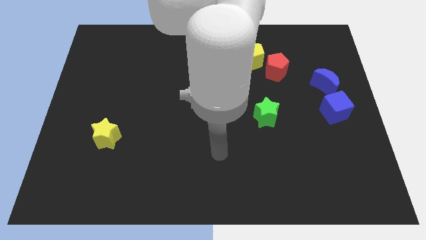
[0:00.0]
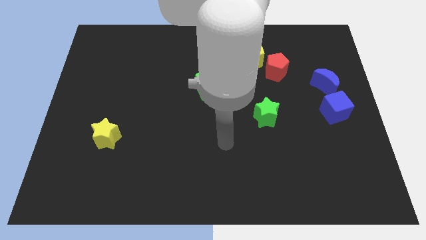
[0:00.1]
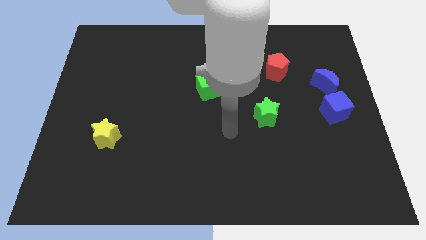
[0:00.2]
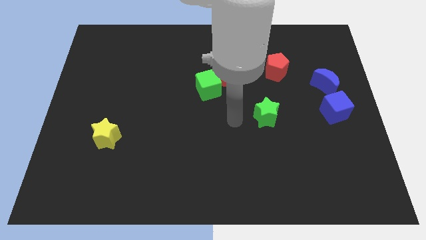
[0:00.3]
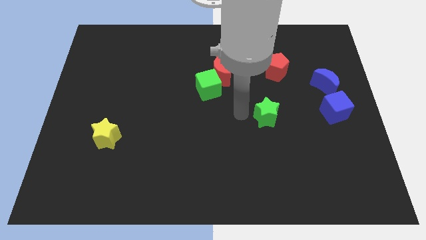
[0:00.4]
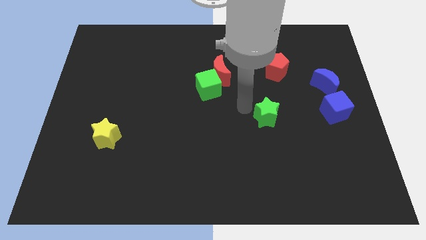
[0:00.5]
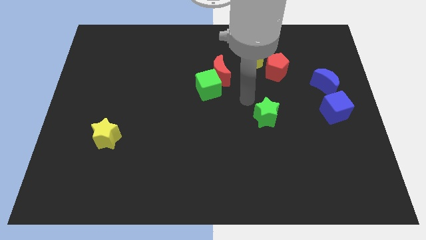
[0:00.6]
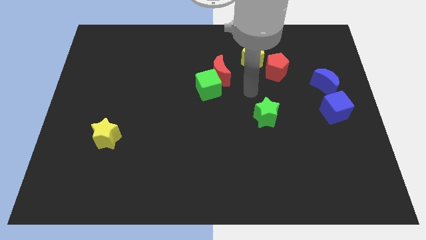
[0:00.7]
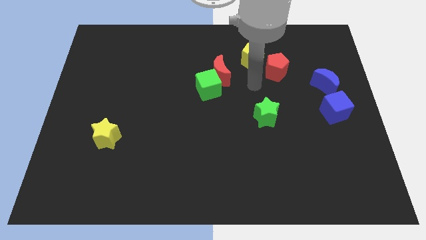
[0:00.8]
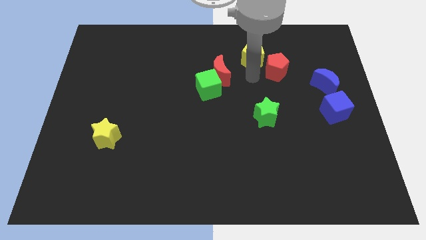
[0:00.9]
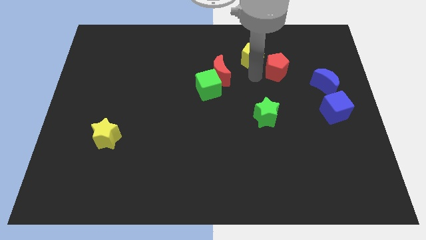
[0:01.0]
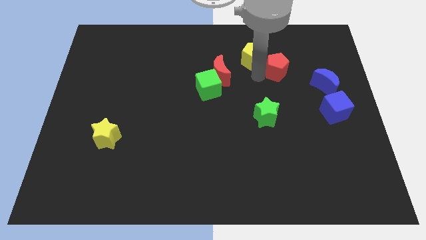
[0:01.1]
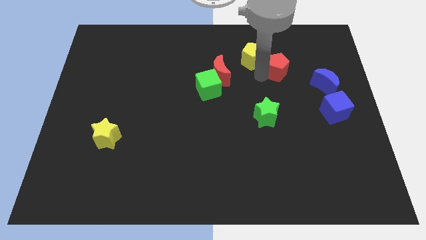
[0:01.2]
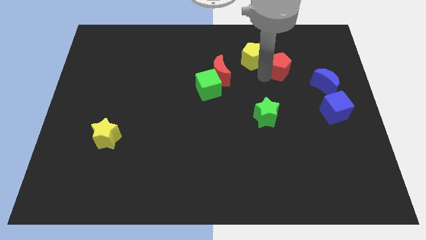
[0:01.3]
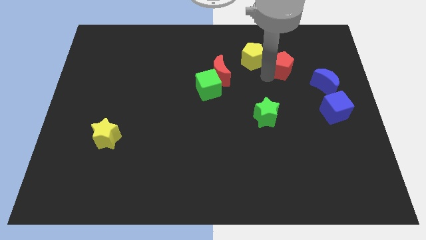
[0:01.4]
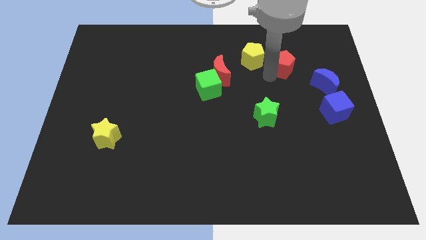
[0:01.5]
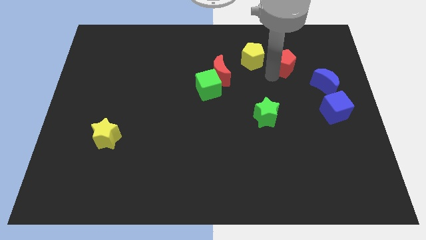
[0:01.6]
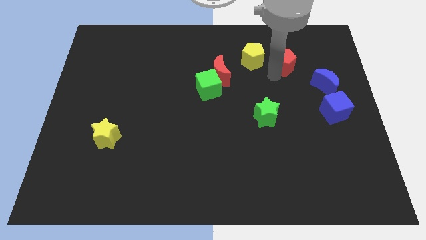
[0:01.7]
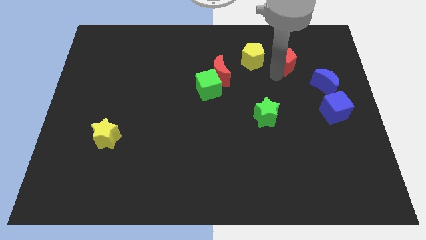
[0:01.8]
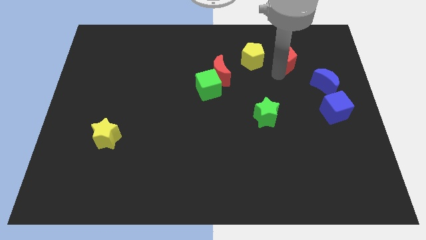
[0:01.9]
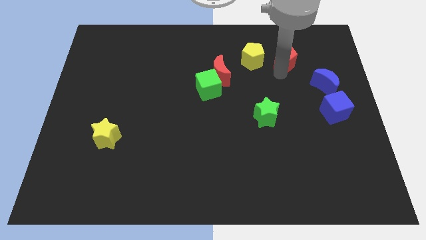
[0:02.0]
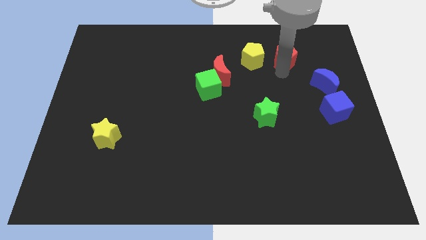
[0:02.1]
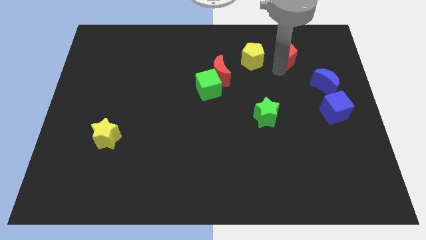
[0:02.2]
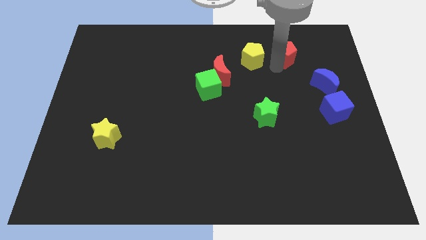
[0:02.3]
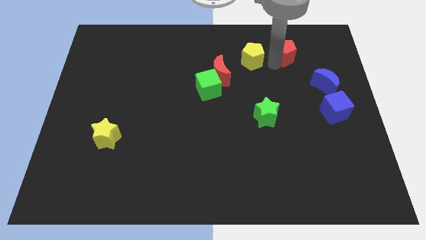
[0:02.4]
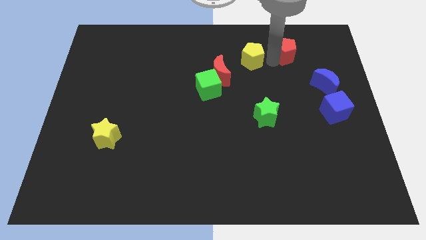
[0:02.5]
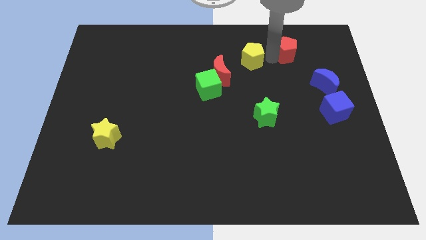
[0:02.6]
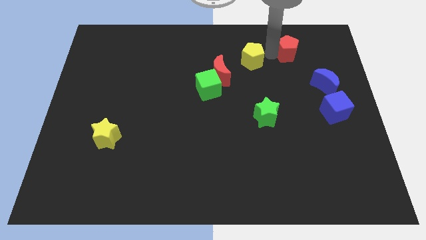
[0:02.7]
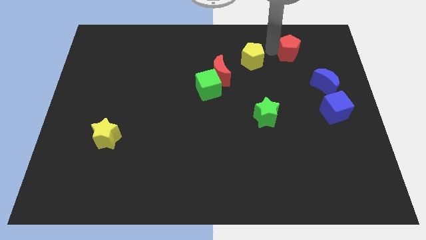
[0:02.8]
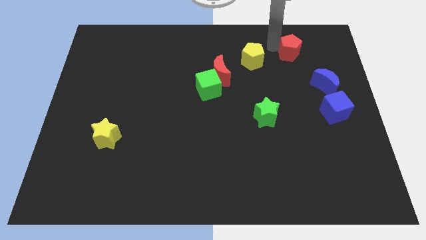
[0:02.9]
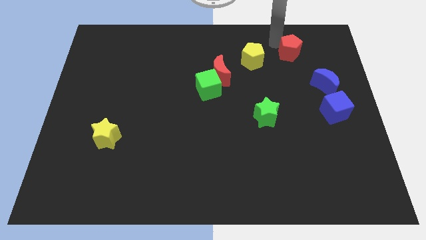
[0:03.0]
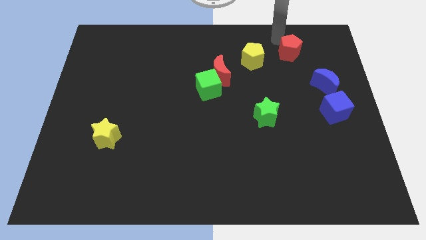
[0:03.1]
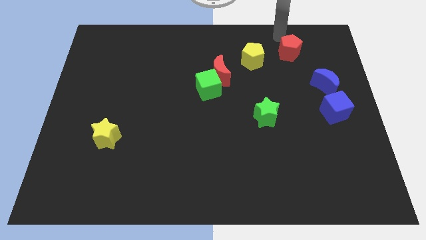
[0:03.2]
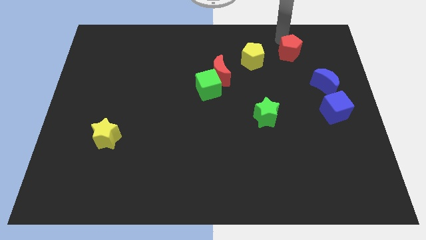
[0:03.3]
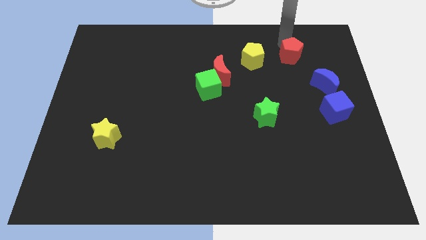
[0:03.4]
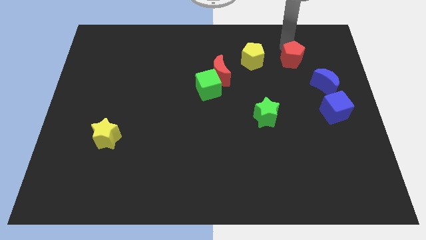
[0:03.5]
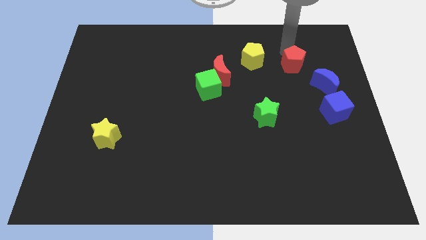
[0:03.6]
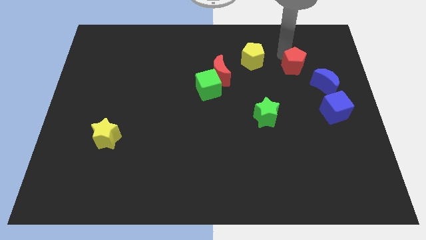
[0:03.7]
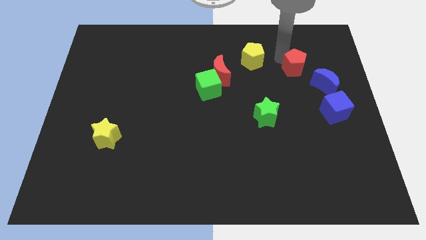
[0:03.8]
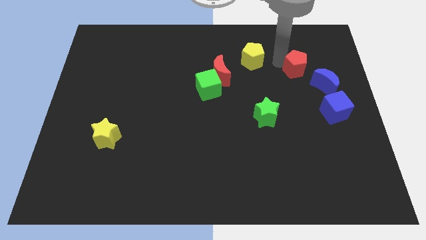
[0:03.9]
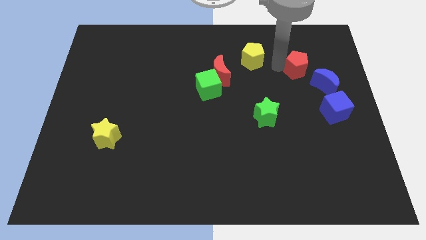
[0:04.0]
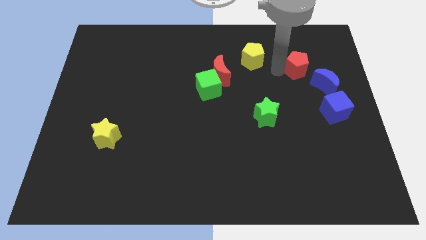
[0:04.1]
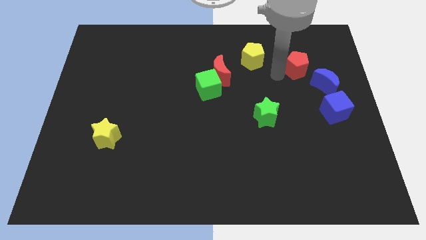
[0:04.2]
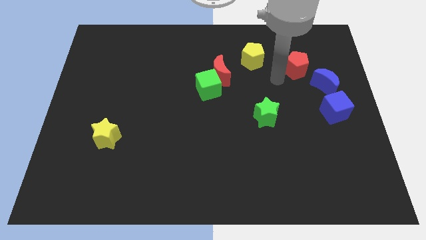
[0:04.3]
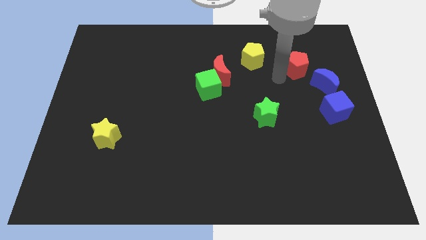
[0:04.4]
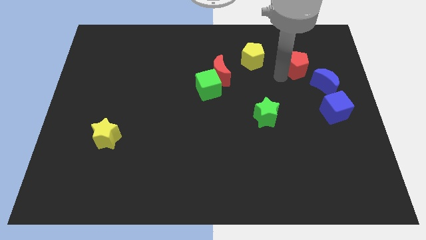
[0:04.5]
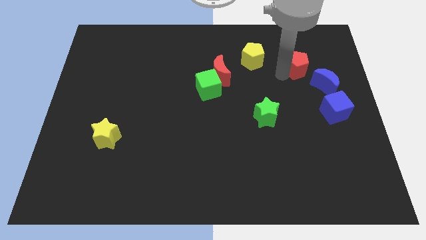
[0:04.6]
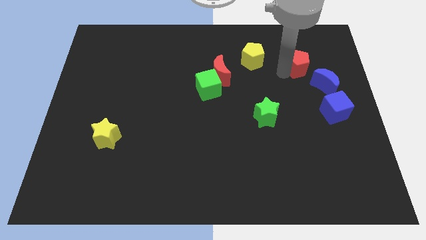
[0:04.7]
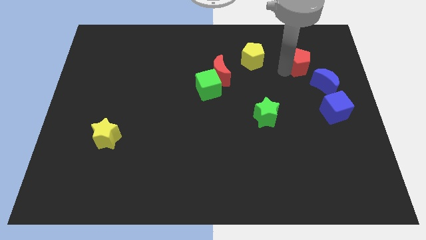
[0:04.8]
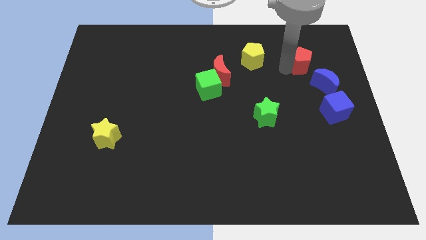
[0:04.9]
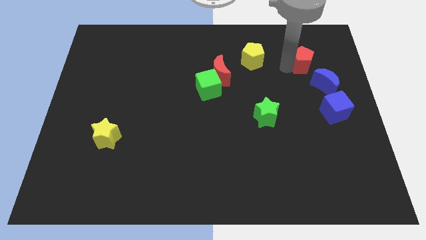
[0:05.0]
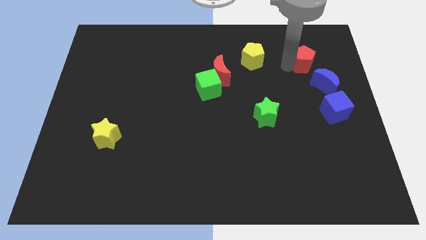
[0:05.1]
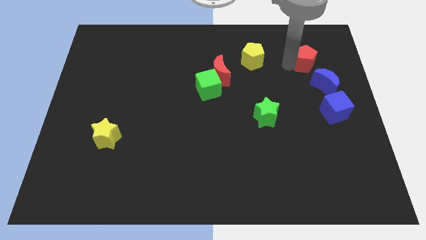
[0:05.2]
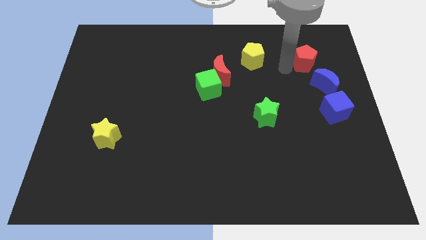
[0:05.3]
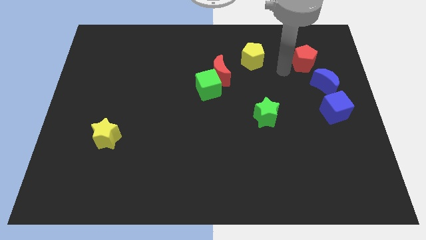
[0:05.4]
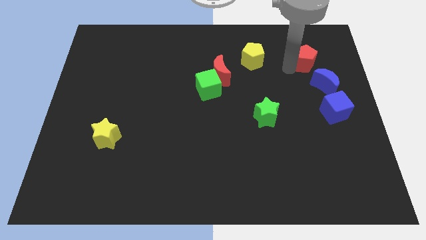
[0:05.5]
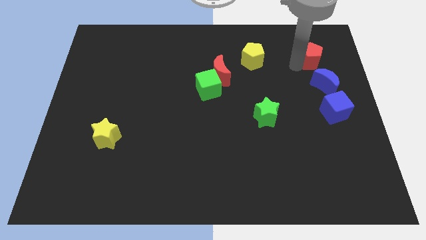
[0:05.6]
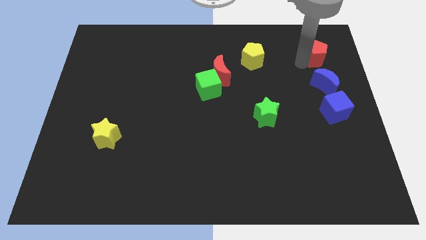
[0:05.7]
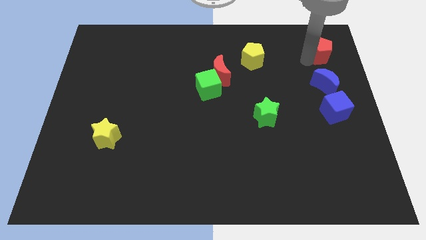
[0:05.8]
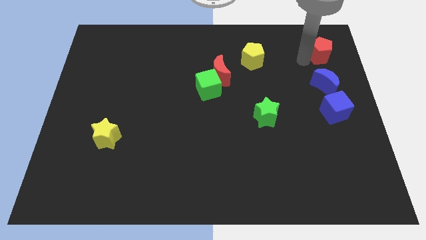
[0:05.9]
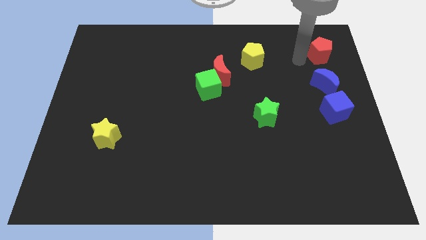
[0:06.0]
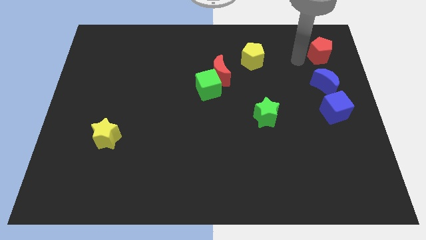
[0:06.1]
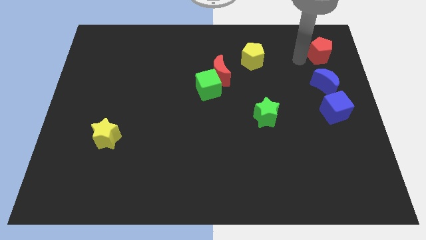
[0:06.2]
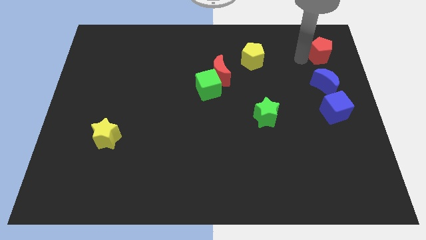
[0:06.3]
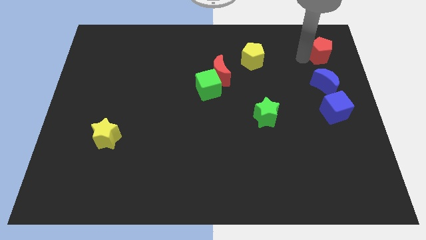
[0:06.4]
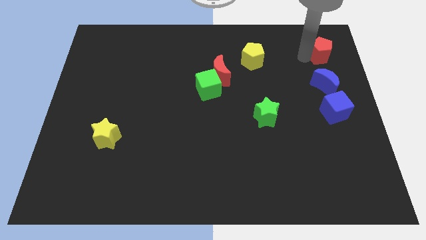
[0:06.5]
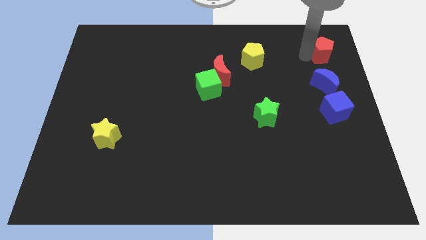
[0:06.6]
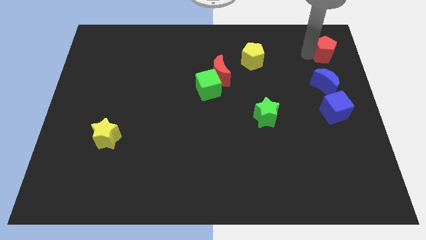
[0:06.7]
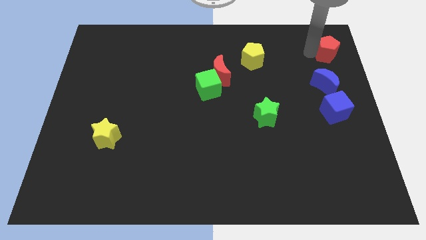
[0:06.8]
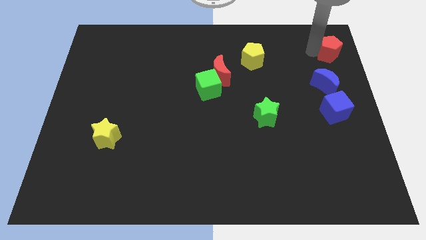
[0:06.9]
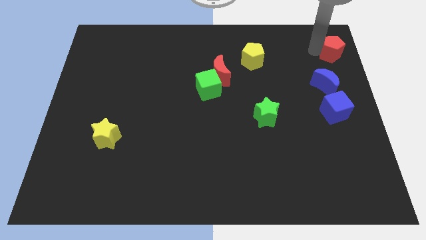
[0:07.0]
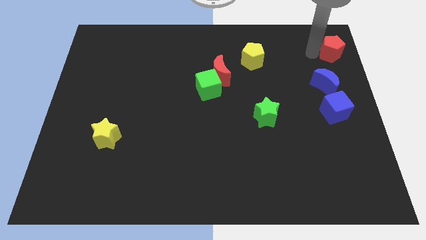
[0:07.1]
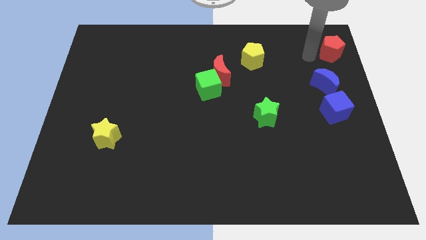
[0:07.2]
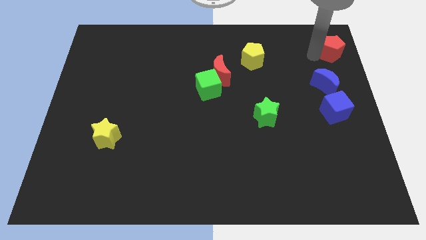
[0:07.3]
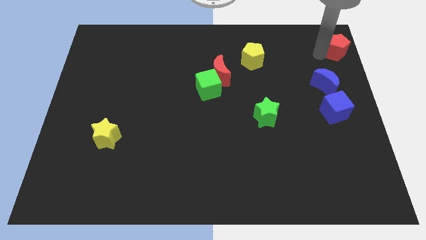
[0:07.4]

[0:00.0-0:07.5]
put the red pentagon to the top right
